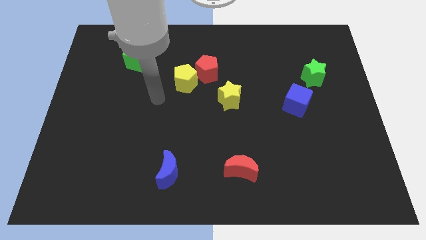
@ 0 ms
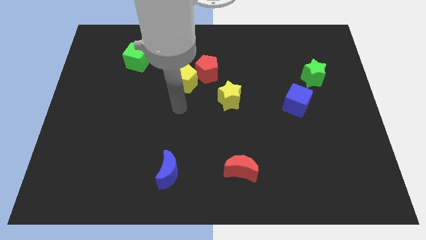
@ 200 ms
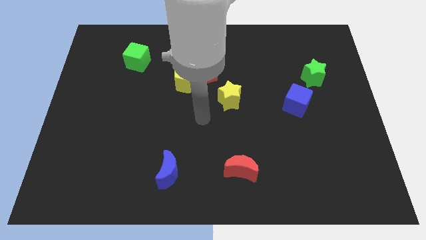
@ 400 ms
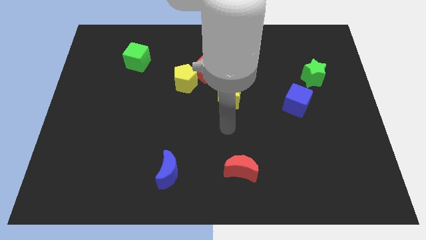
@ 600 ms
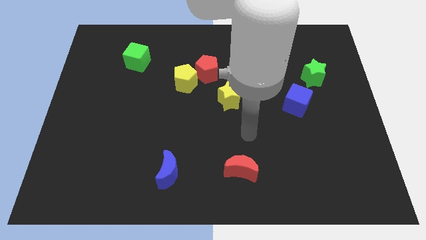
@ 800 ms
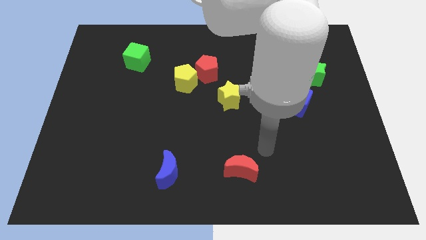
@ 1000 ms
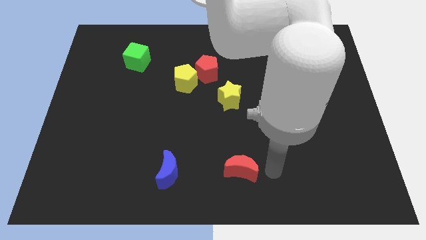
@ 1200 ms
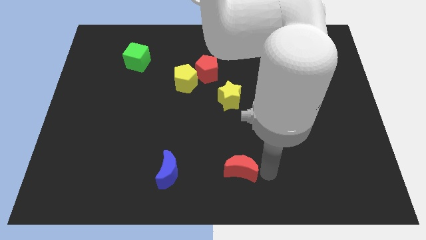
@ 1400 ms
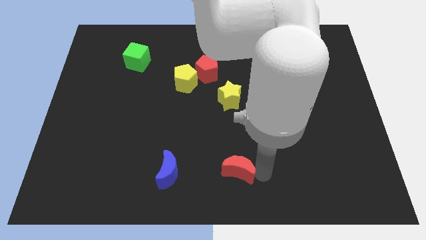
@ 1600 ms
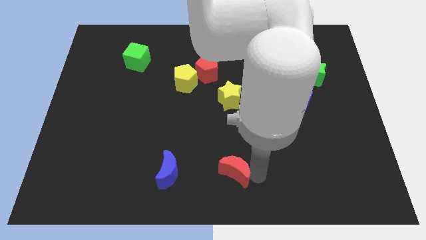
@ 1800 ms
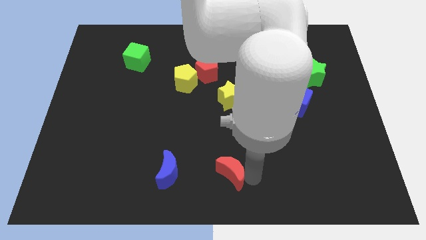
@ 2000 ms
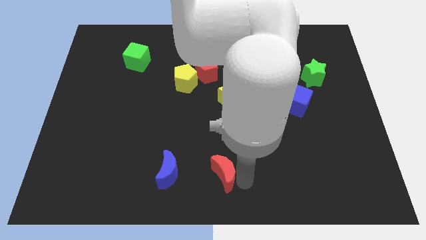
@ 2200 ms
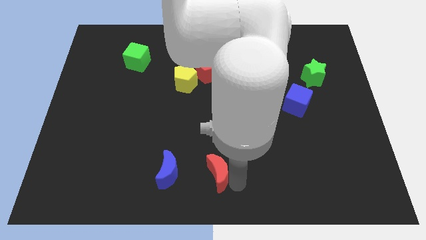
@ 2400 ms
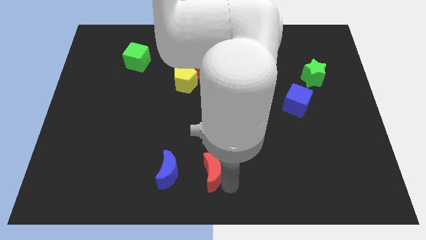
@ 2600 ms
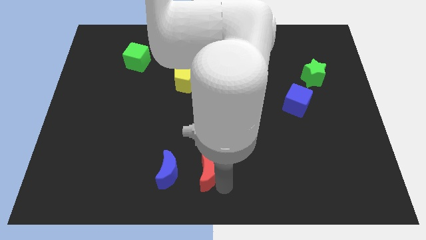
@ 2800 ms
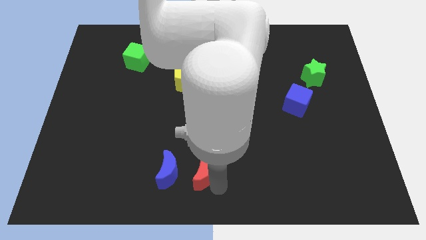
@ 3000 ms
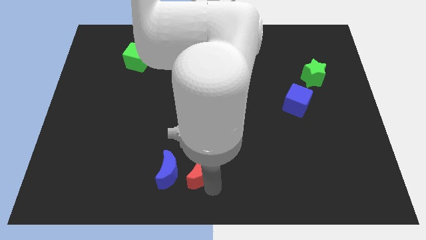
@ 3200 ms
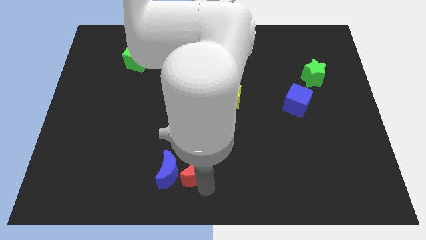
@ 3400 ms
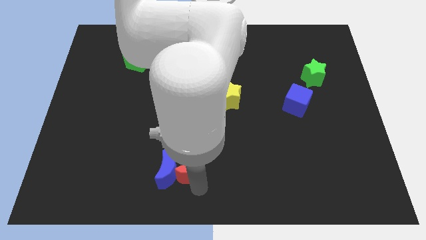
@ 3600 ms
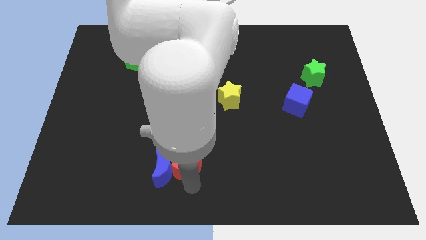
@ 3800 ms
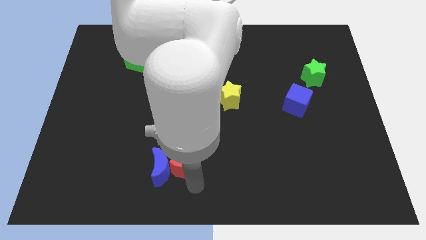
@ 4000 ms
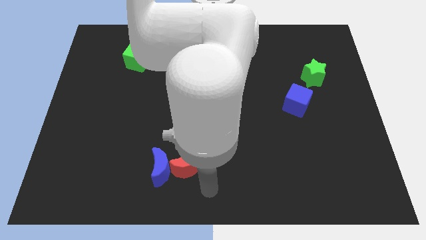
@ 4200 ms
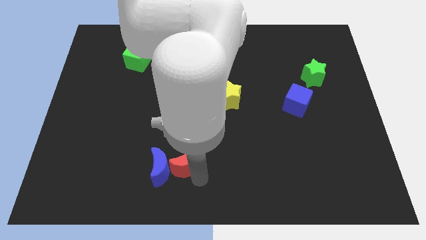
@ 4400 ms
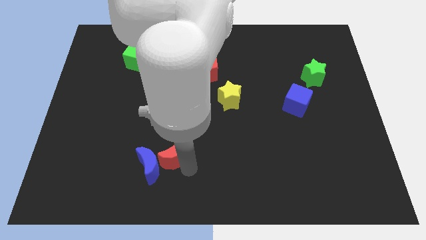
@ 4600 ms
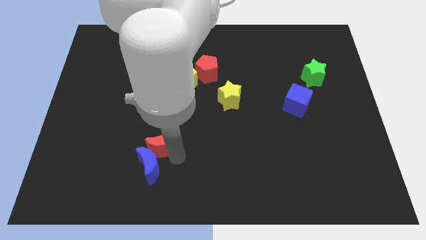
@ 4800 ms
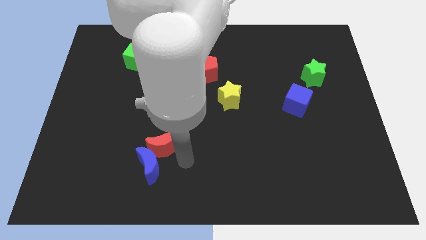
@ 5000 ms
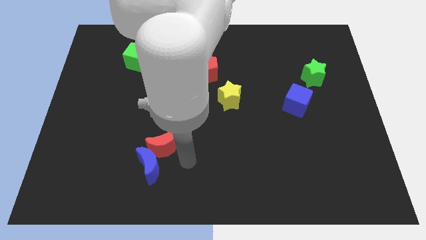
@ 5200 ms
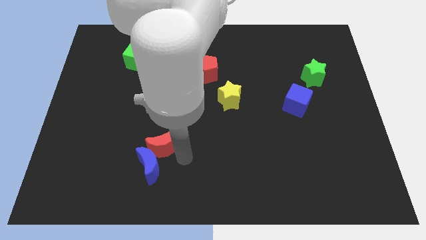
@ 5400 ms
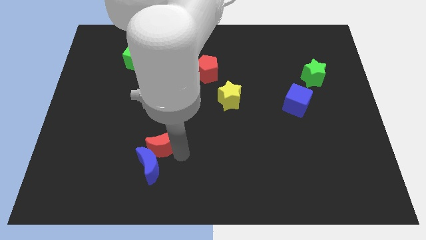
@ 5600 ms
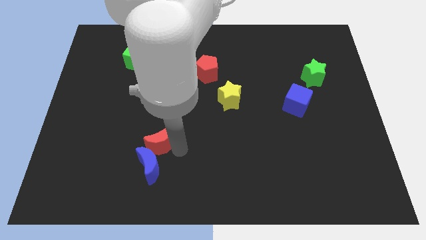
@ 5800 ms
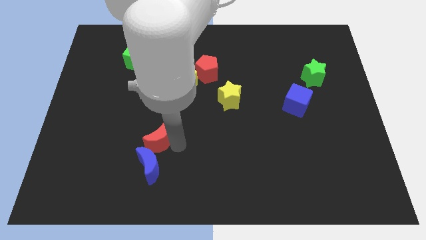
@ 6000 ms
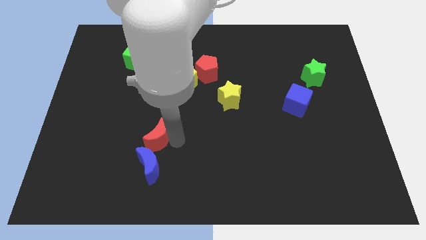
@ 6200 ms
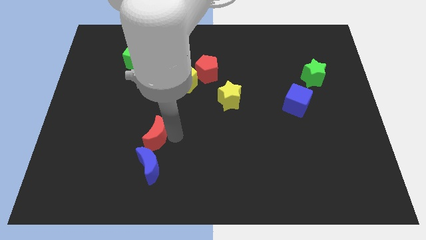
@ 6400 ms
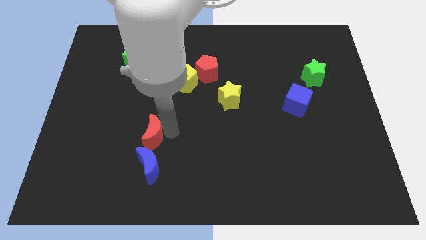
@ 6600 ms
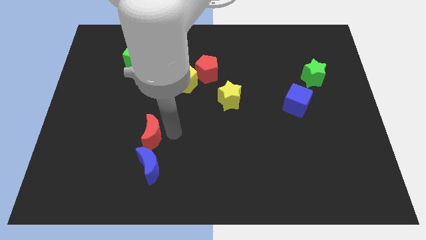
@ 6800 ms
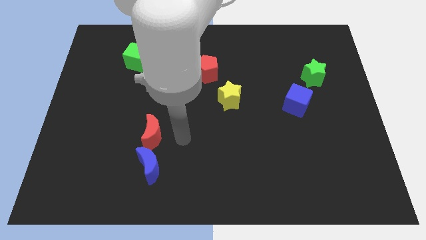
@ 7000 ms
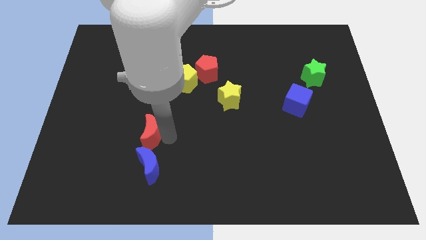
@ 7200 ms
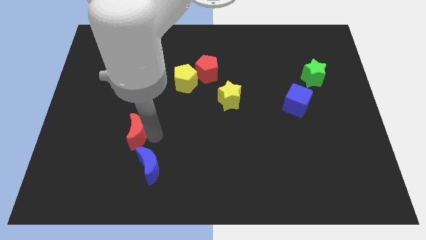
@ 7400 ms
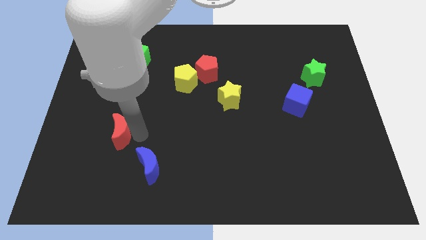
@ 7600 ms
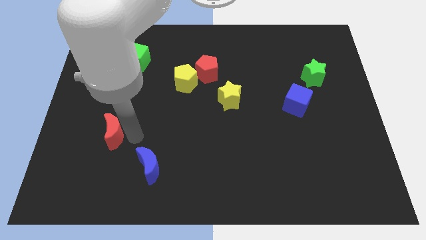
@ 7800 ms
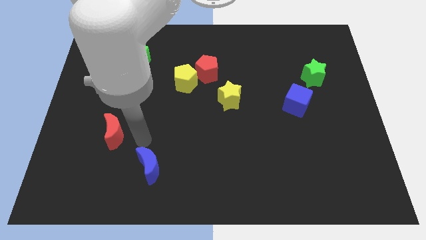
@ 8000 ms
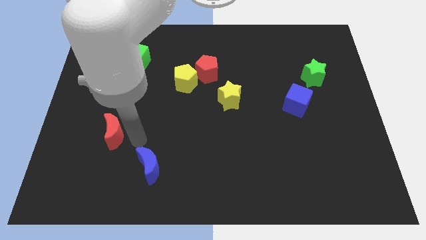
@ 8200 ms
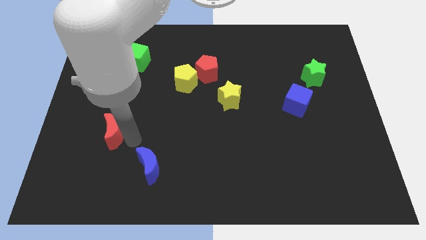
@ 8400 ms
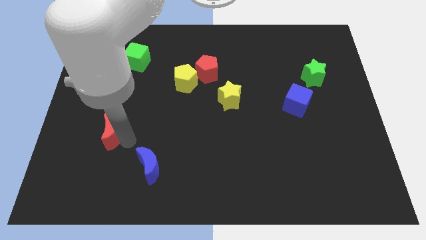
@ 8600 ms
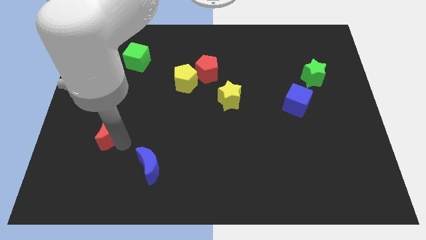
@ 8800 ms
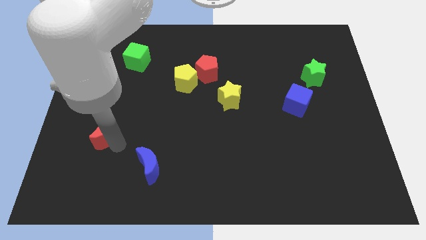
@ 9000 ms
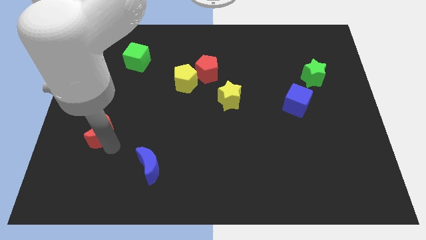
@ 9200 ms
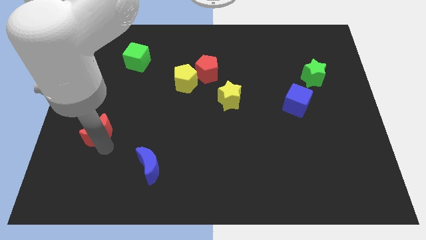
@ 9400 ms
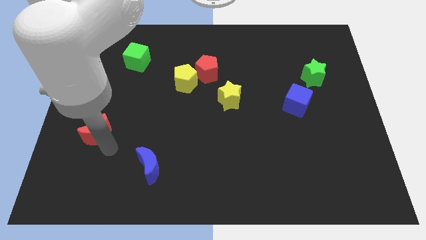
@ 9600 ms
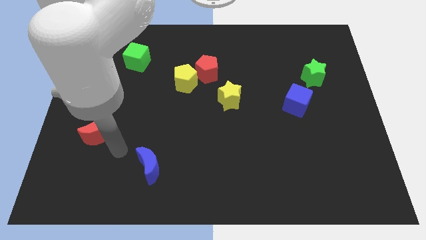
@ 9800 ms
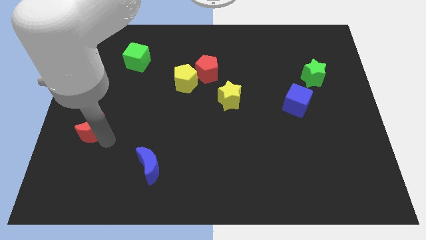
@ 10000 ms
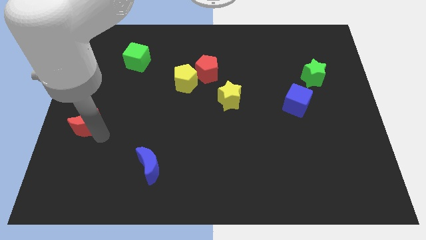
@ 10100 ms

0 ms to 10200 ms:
put the red moon to the left side of the board

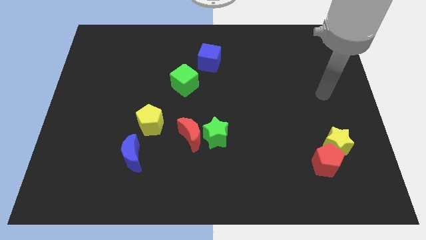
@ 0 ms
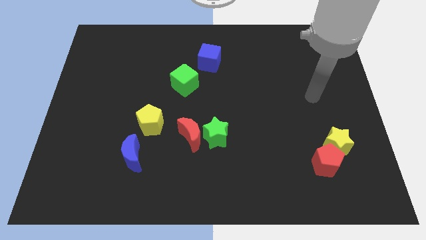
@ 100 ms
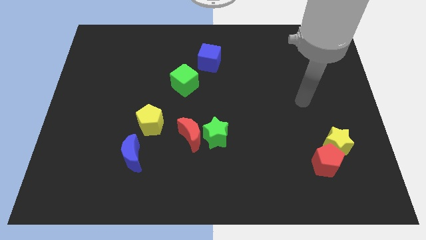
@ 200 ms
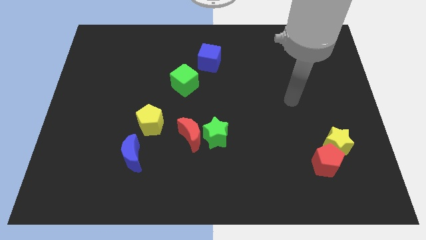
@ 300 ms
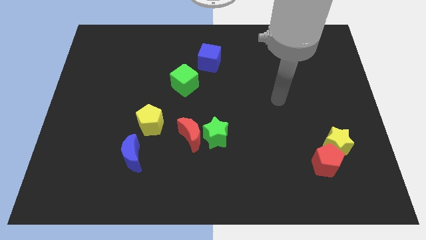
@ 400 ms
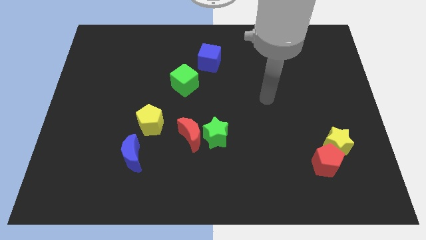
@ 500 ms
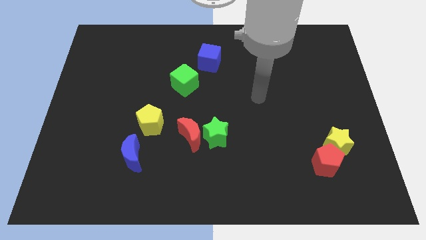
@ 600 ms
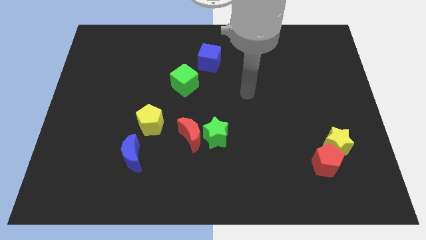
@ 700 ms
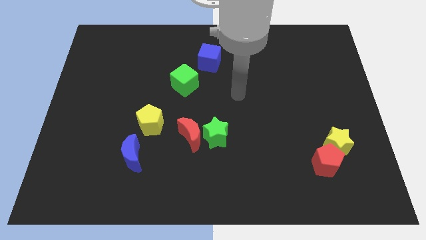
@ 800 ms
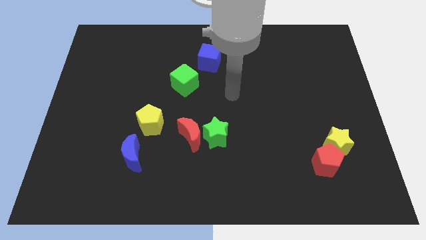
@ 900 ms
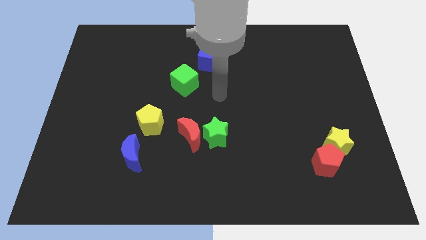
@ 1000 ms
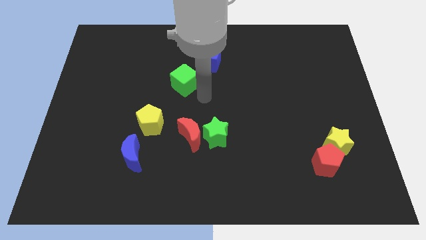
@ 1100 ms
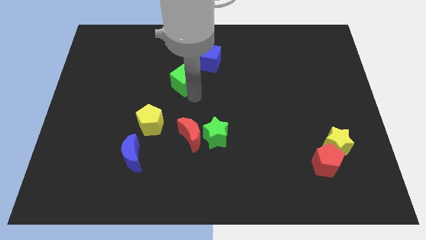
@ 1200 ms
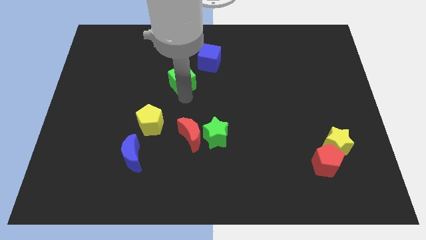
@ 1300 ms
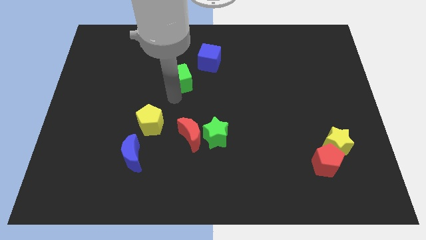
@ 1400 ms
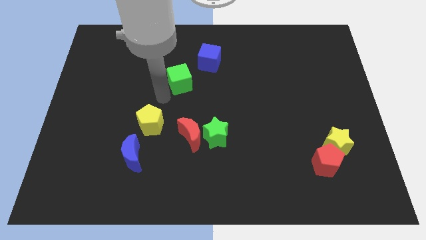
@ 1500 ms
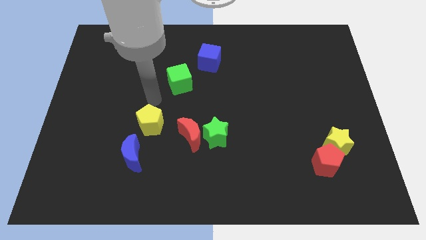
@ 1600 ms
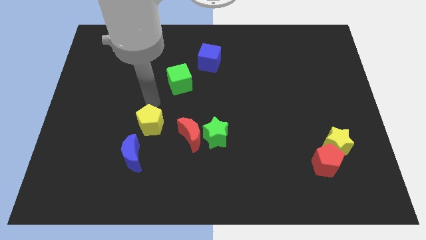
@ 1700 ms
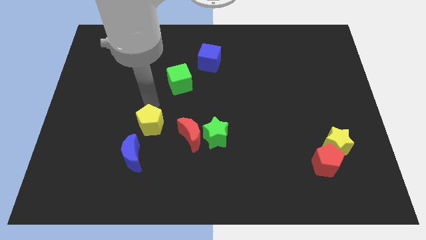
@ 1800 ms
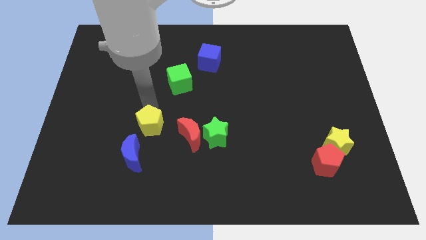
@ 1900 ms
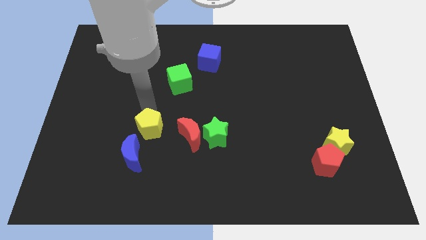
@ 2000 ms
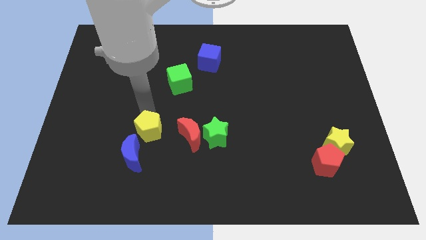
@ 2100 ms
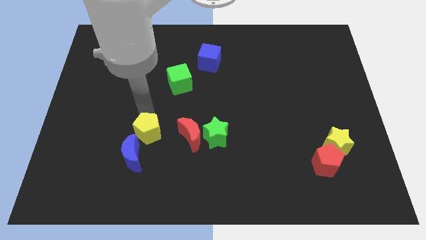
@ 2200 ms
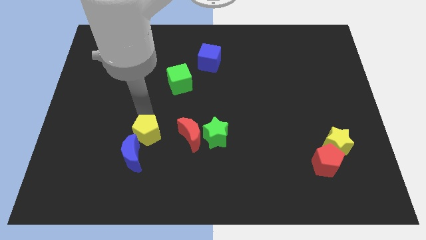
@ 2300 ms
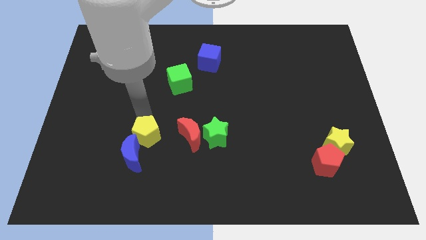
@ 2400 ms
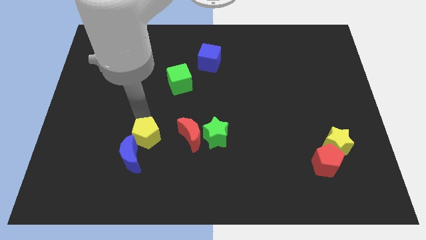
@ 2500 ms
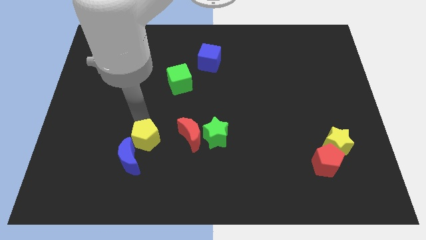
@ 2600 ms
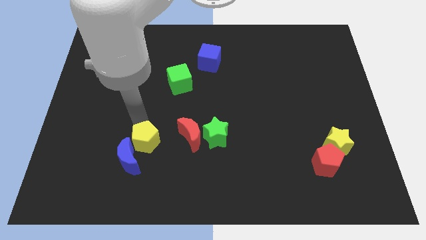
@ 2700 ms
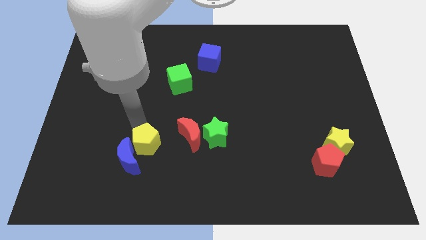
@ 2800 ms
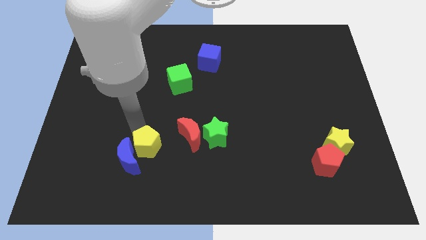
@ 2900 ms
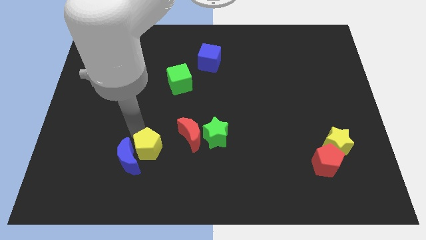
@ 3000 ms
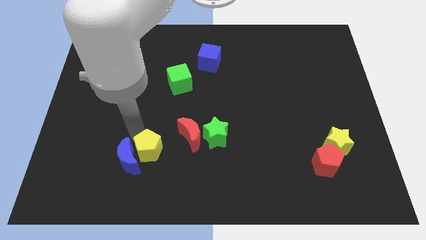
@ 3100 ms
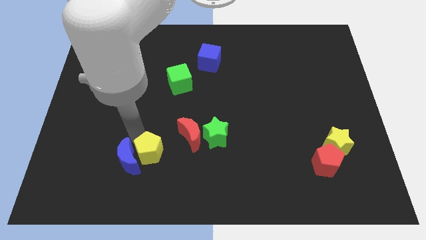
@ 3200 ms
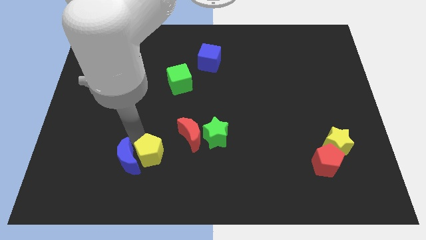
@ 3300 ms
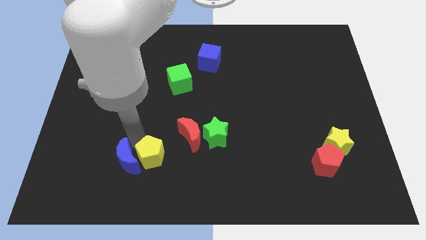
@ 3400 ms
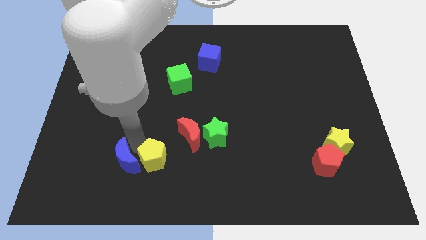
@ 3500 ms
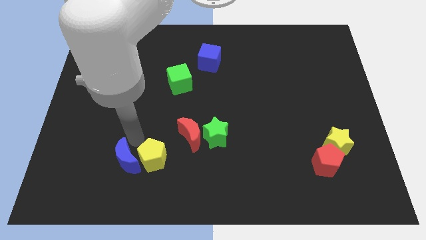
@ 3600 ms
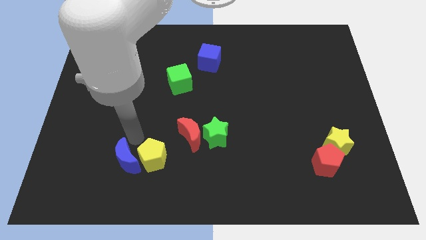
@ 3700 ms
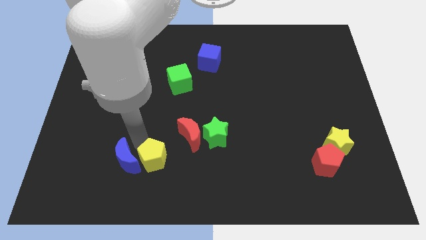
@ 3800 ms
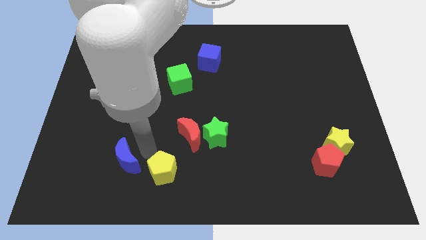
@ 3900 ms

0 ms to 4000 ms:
put the yellow pentagon to the bottom side
